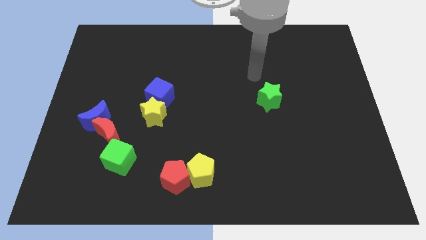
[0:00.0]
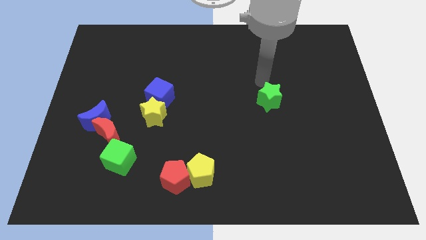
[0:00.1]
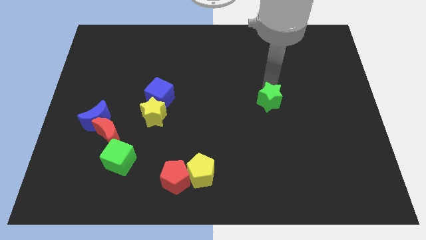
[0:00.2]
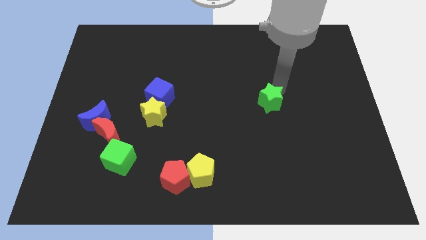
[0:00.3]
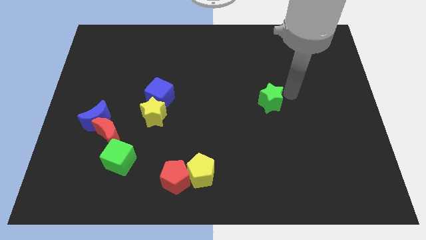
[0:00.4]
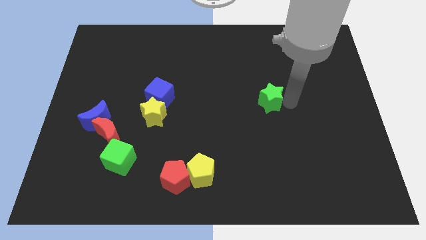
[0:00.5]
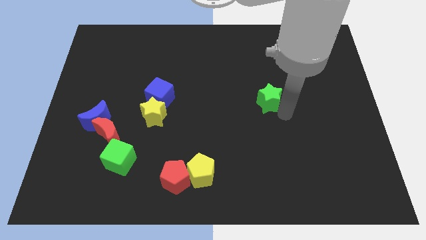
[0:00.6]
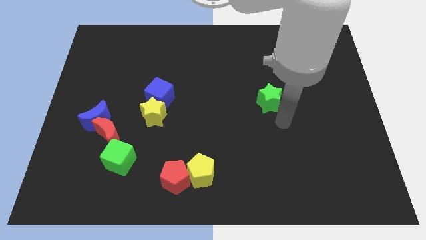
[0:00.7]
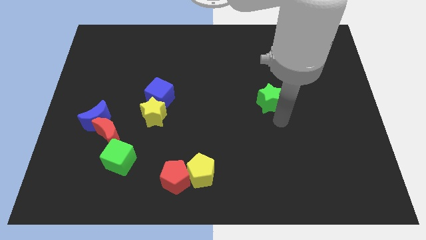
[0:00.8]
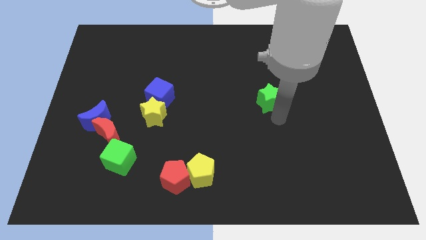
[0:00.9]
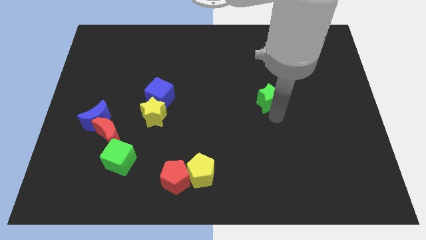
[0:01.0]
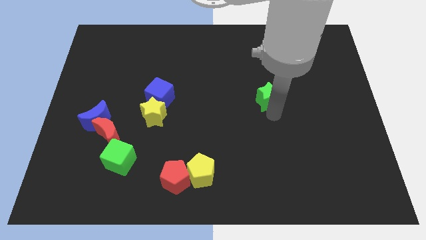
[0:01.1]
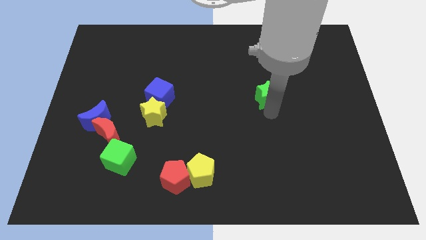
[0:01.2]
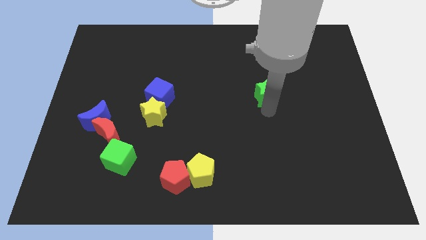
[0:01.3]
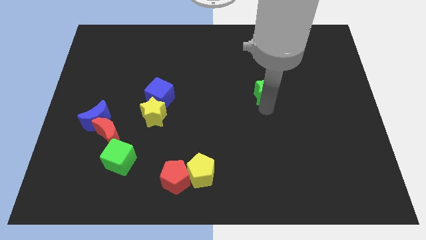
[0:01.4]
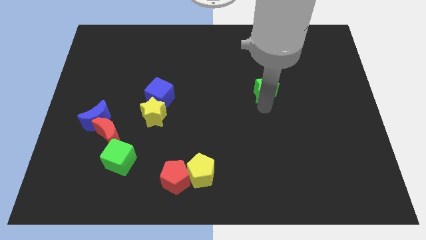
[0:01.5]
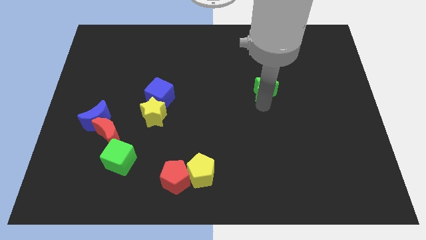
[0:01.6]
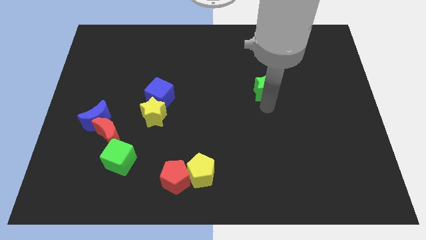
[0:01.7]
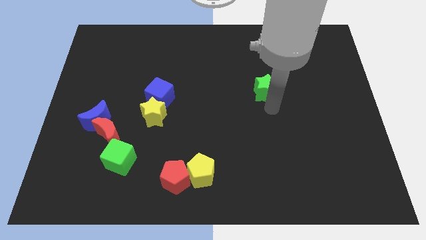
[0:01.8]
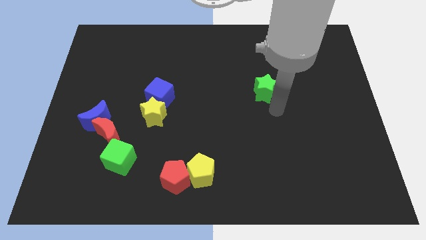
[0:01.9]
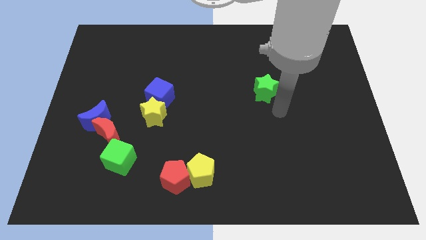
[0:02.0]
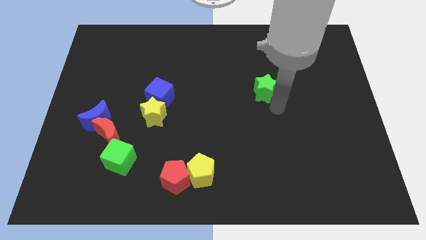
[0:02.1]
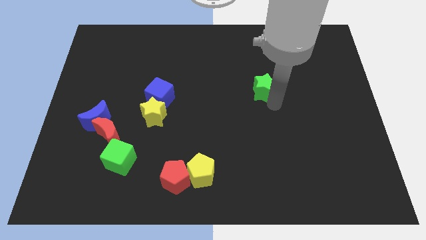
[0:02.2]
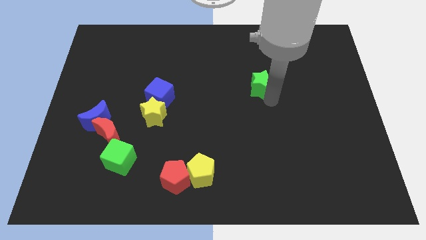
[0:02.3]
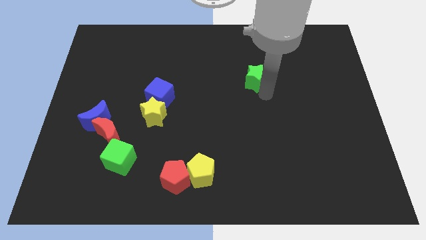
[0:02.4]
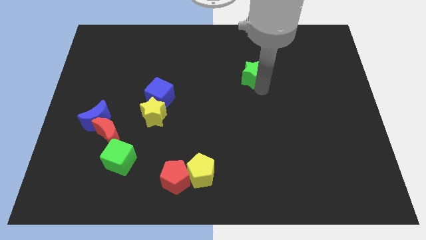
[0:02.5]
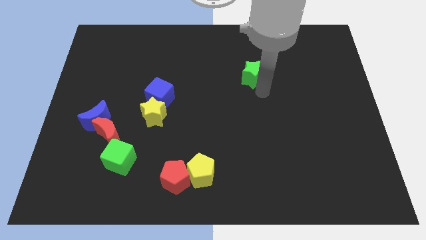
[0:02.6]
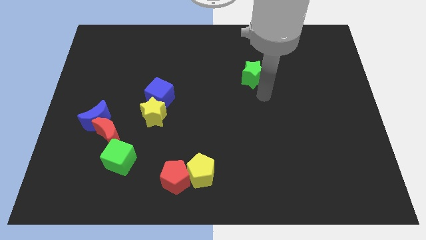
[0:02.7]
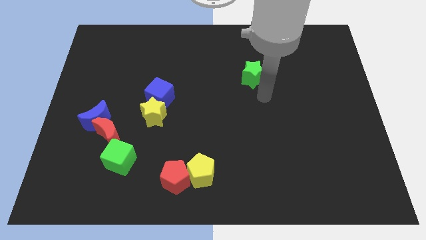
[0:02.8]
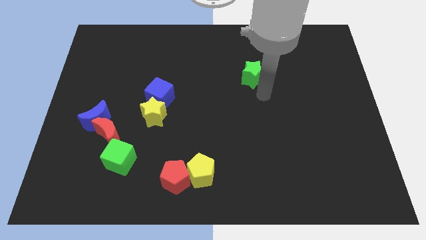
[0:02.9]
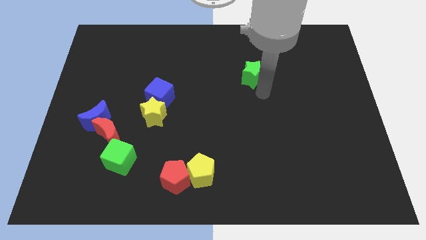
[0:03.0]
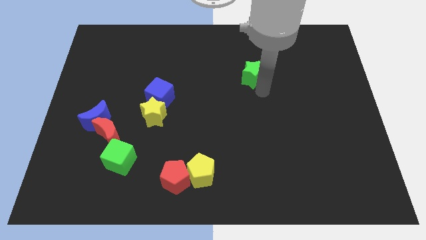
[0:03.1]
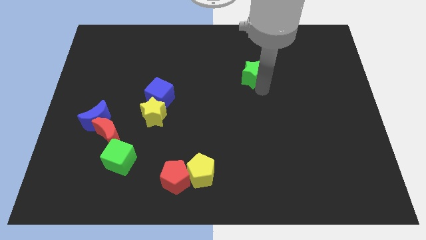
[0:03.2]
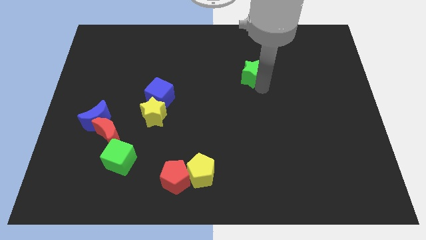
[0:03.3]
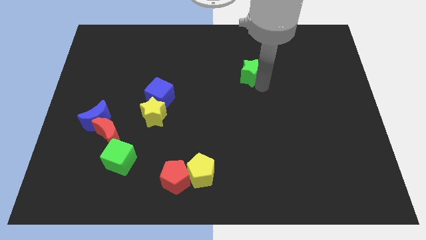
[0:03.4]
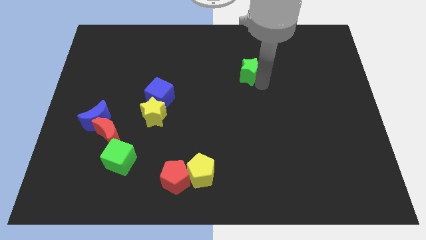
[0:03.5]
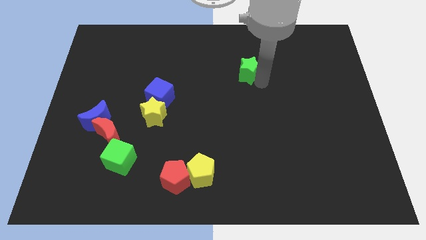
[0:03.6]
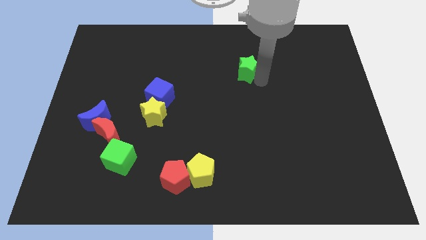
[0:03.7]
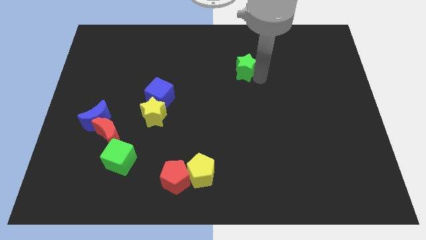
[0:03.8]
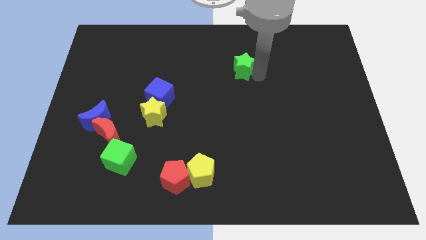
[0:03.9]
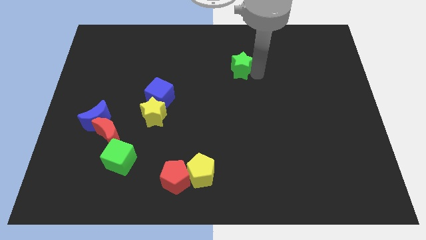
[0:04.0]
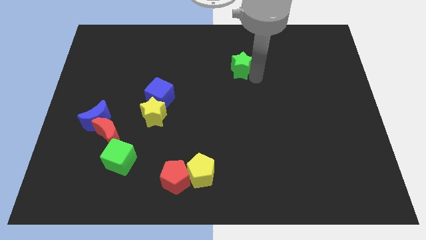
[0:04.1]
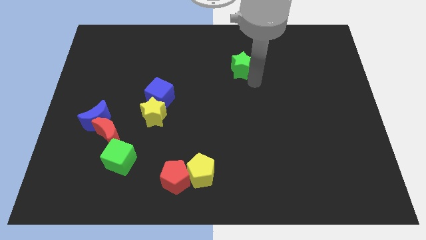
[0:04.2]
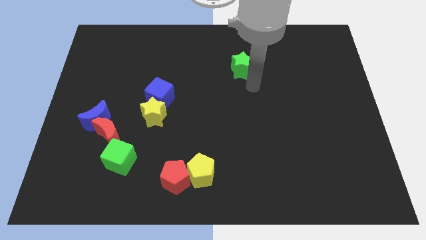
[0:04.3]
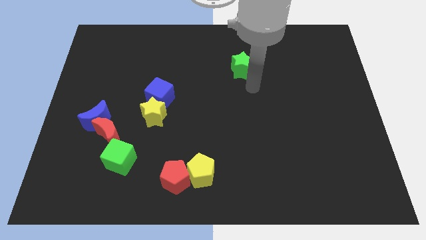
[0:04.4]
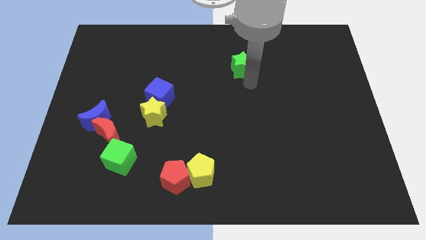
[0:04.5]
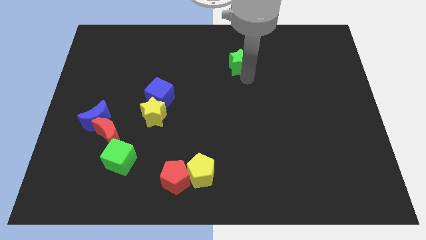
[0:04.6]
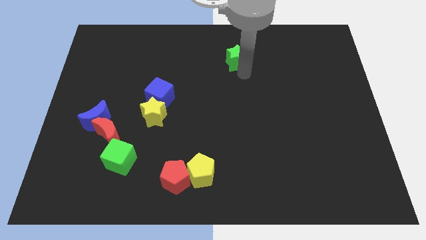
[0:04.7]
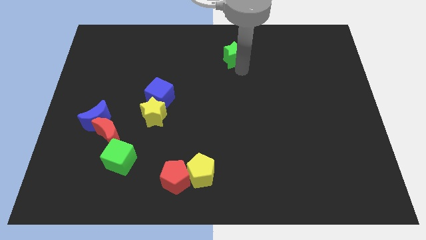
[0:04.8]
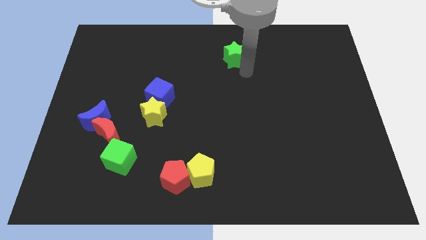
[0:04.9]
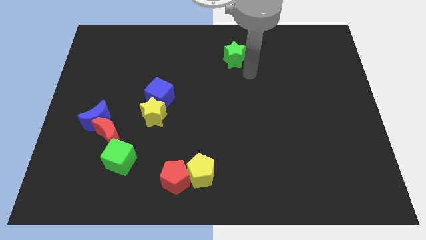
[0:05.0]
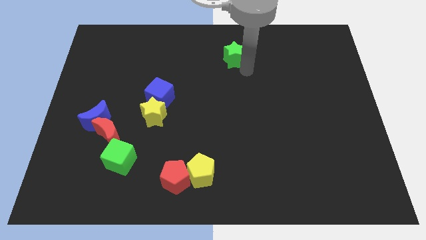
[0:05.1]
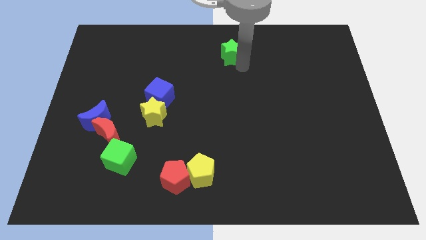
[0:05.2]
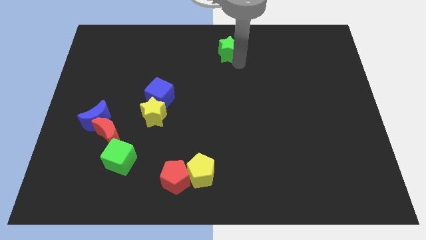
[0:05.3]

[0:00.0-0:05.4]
push the green star to the top side

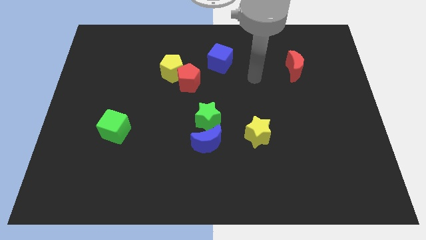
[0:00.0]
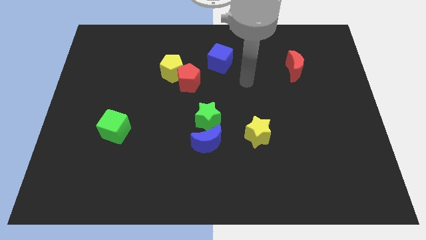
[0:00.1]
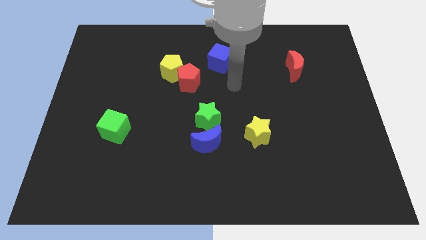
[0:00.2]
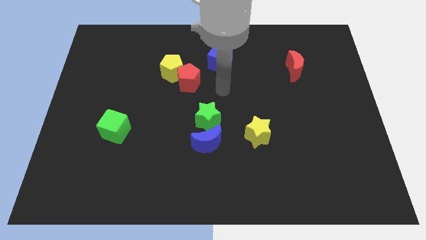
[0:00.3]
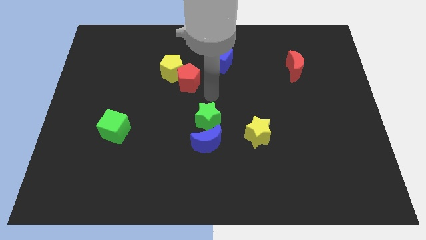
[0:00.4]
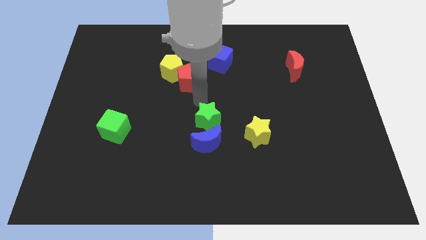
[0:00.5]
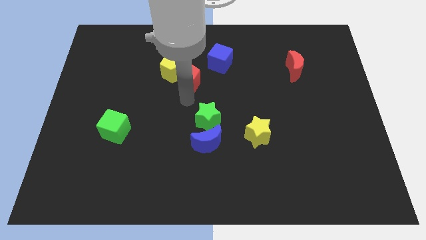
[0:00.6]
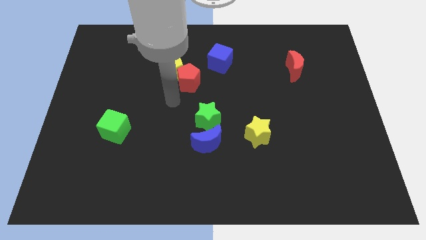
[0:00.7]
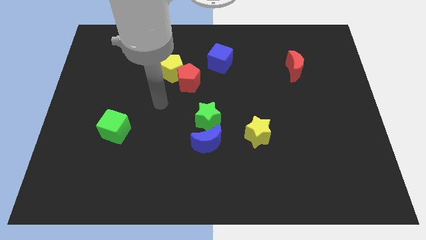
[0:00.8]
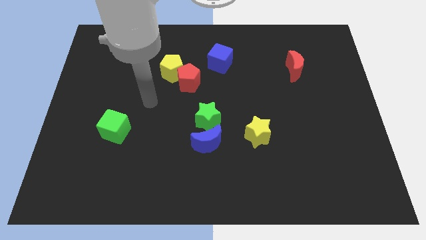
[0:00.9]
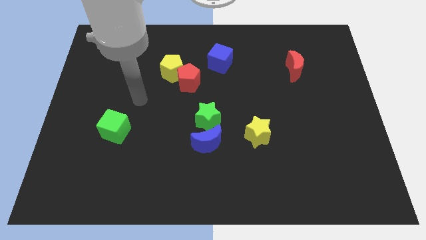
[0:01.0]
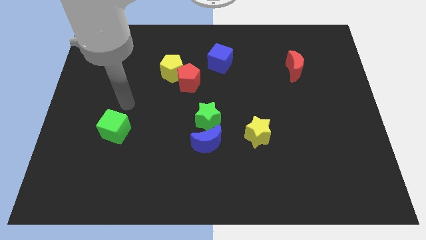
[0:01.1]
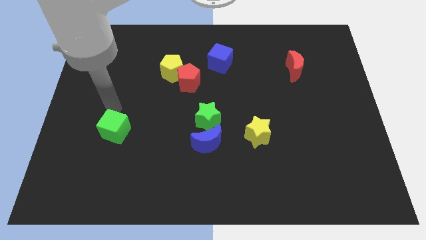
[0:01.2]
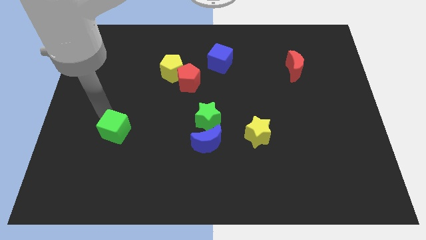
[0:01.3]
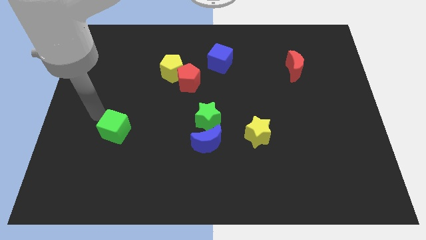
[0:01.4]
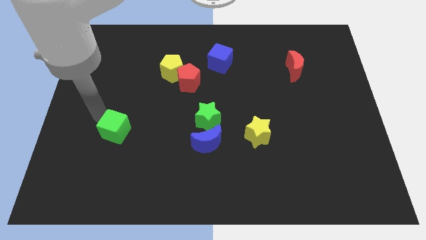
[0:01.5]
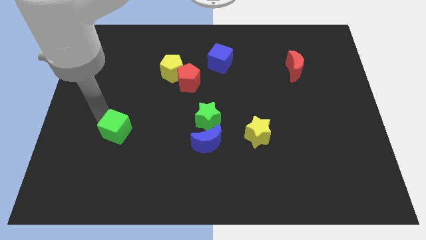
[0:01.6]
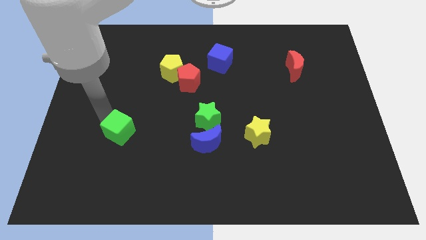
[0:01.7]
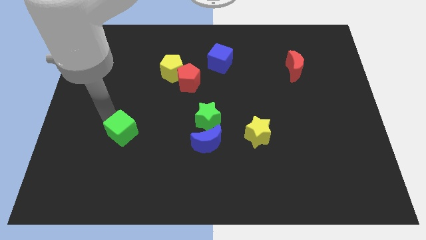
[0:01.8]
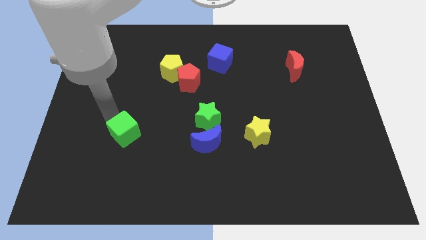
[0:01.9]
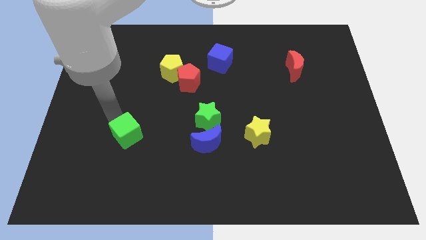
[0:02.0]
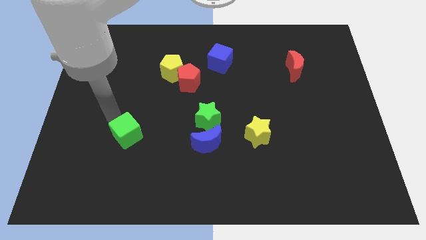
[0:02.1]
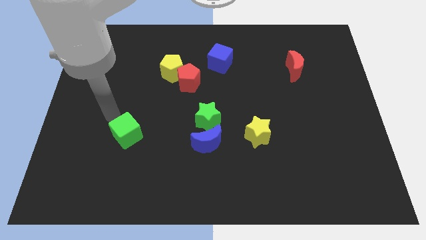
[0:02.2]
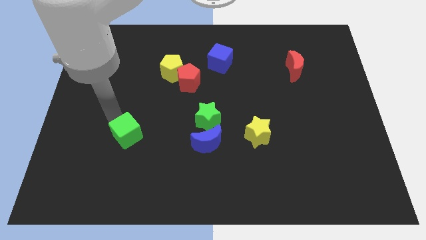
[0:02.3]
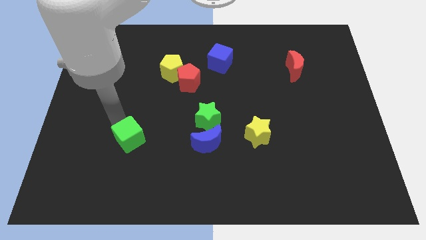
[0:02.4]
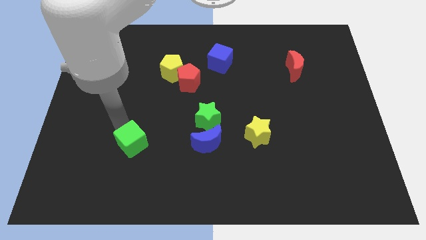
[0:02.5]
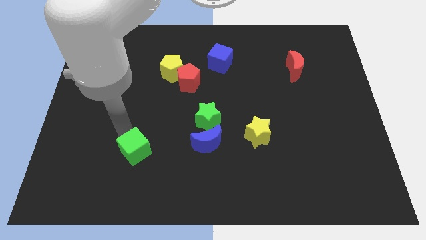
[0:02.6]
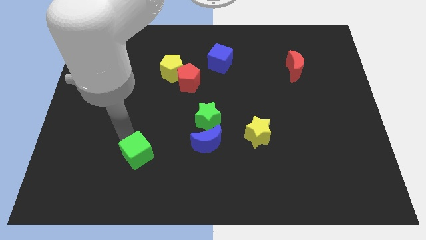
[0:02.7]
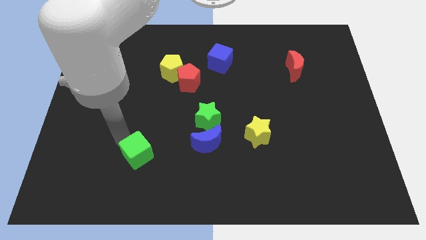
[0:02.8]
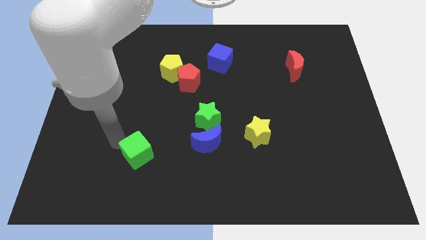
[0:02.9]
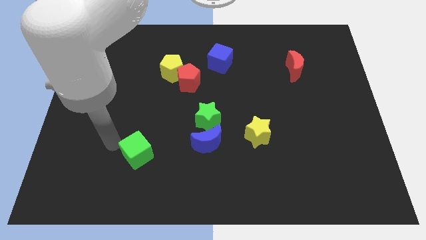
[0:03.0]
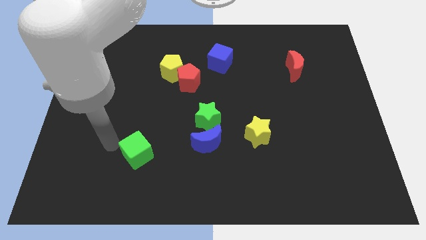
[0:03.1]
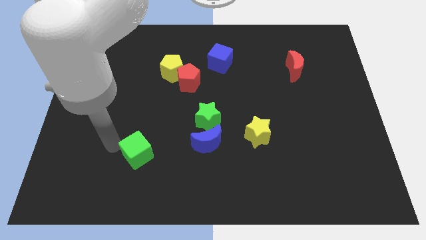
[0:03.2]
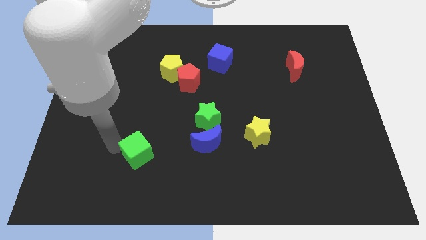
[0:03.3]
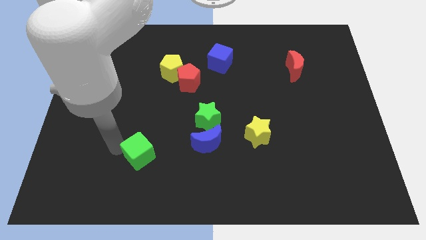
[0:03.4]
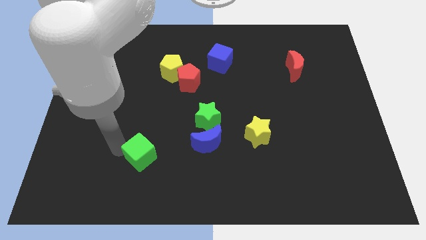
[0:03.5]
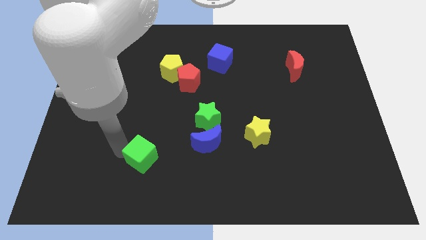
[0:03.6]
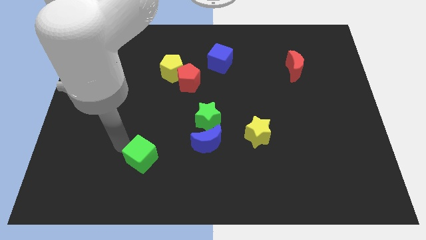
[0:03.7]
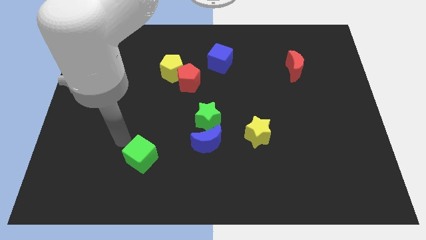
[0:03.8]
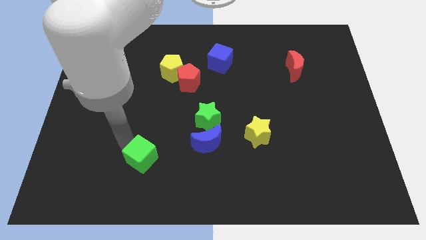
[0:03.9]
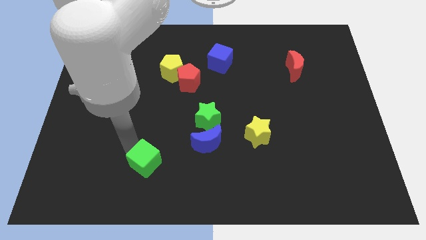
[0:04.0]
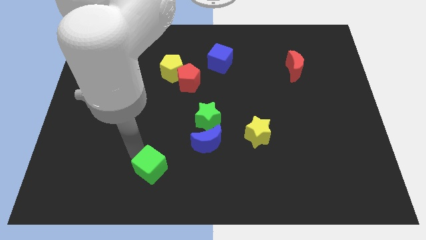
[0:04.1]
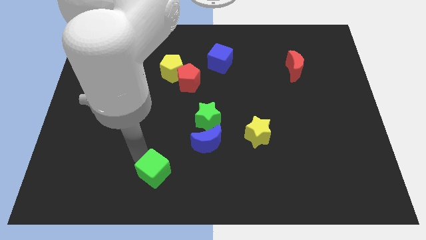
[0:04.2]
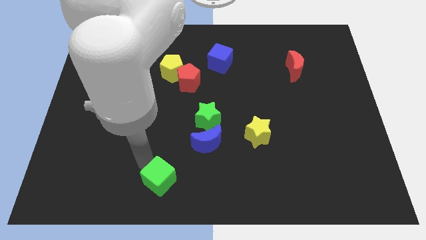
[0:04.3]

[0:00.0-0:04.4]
push the green cube to the bottom
